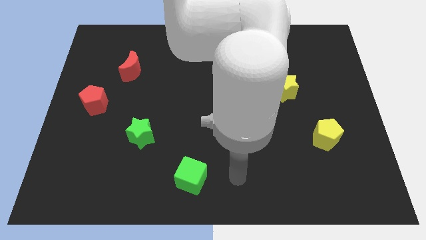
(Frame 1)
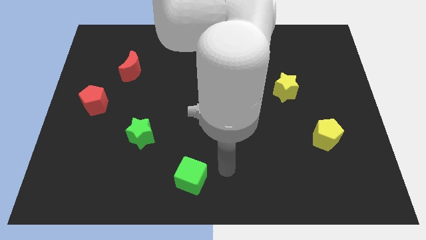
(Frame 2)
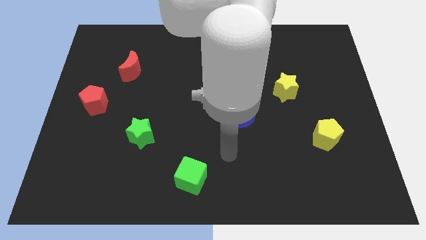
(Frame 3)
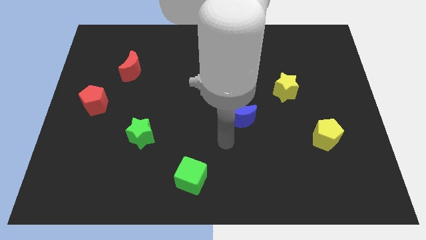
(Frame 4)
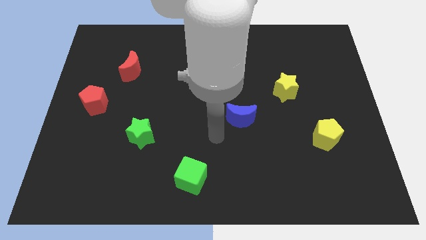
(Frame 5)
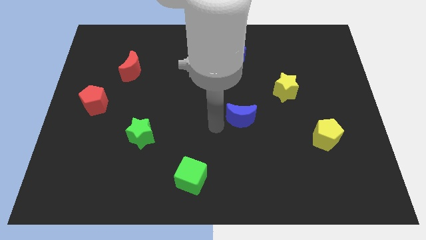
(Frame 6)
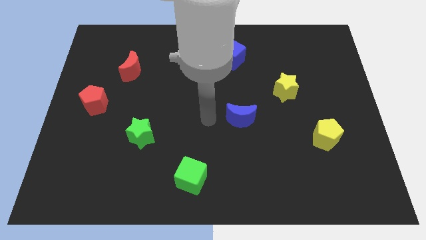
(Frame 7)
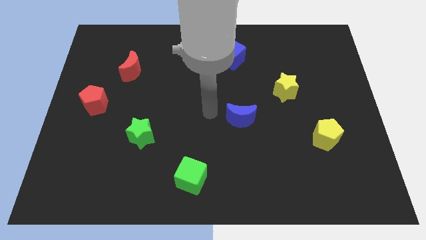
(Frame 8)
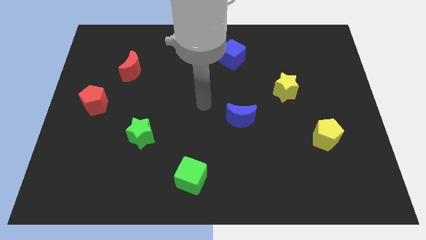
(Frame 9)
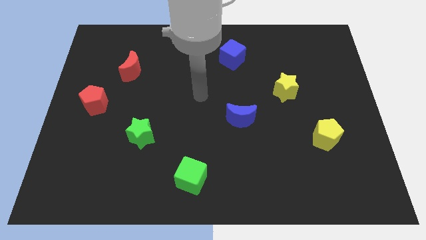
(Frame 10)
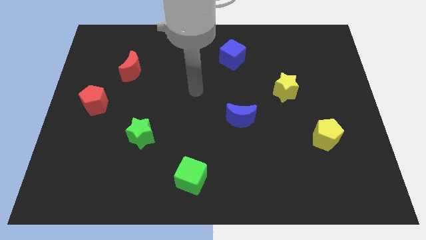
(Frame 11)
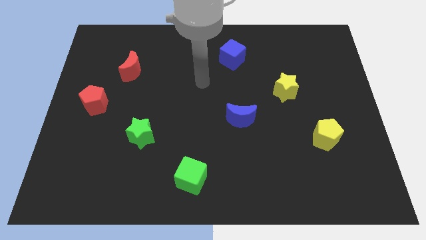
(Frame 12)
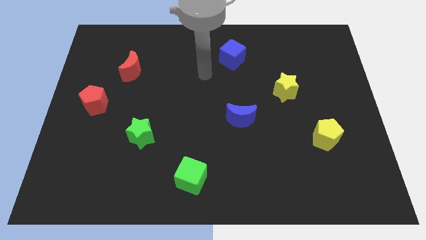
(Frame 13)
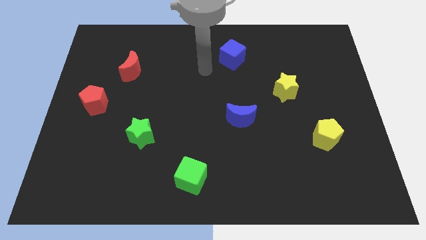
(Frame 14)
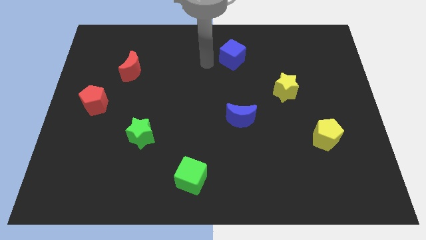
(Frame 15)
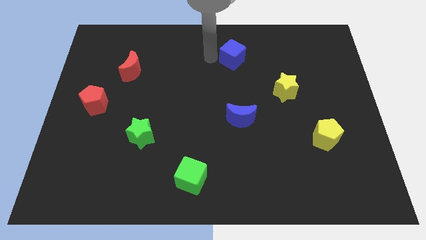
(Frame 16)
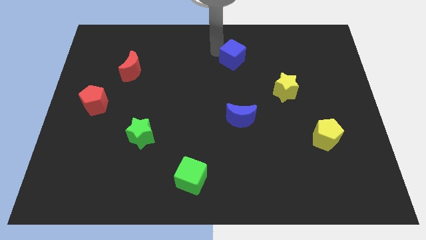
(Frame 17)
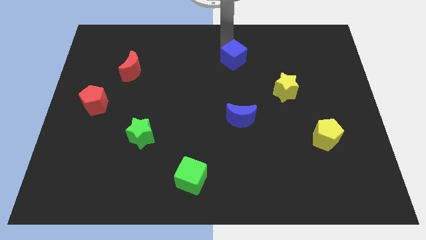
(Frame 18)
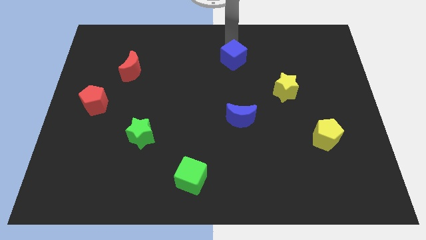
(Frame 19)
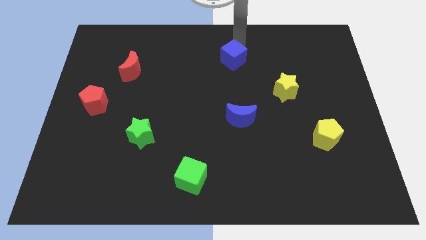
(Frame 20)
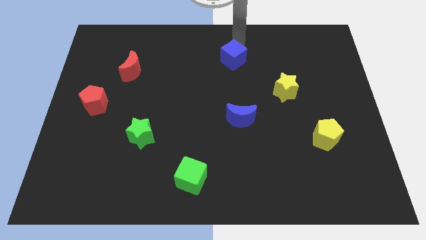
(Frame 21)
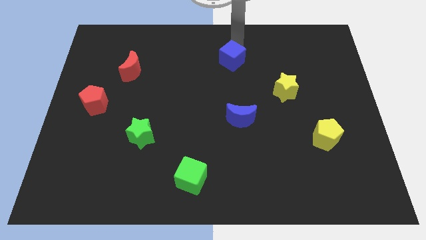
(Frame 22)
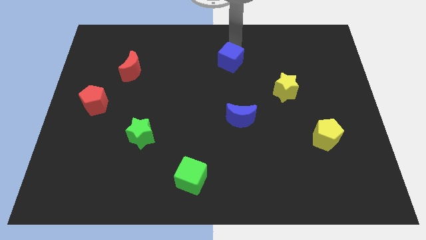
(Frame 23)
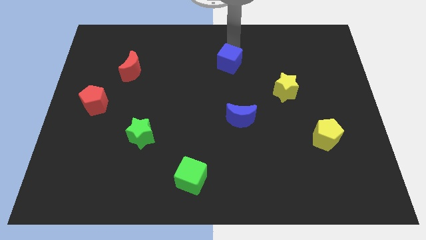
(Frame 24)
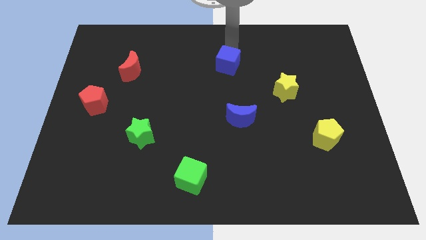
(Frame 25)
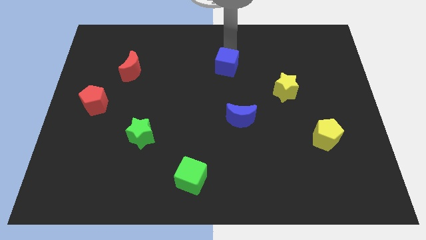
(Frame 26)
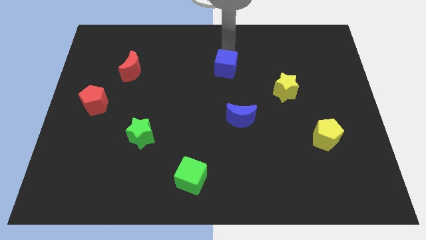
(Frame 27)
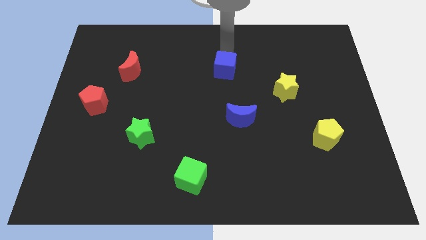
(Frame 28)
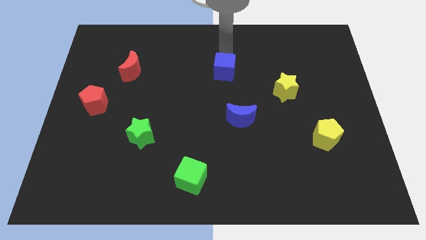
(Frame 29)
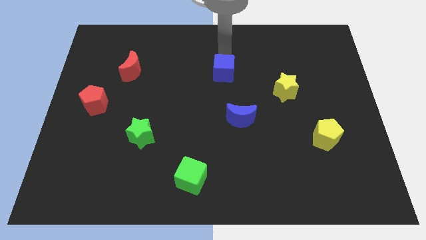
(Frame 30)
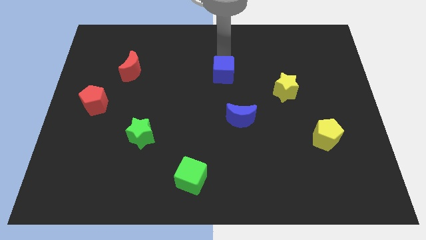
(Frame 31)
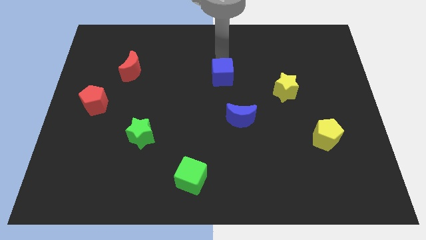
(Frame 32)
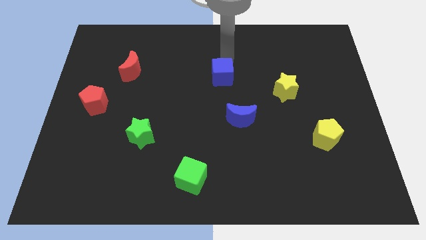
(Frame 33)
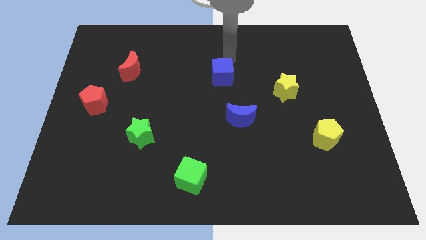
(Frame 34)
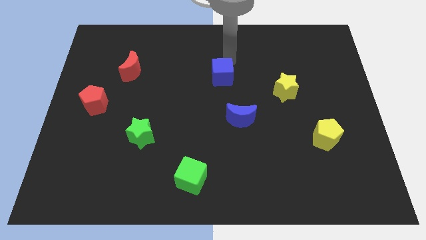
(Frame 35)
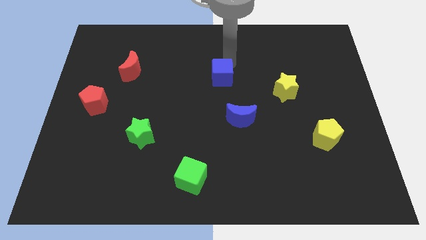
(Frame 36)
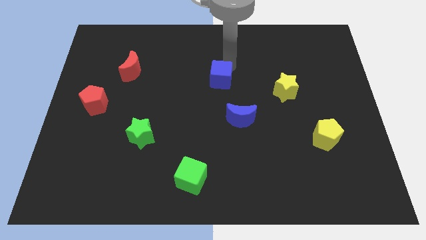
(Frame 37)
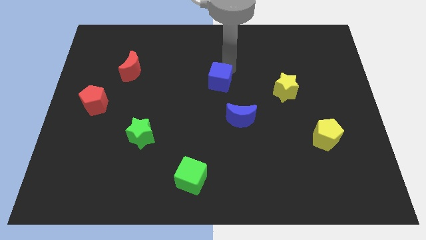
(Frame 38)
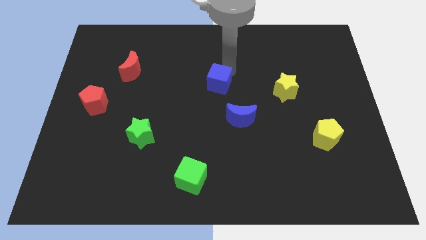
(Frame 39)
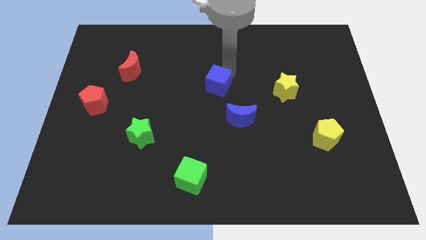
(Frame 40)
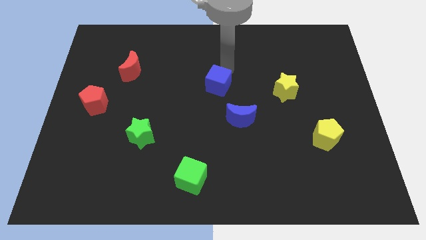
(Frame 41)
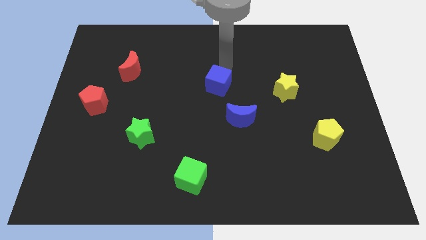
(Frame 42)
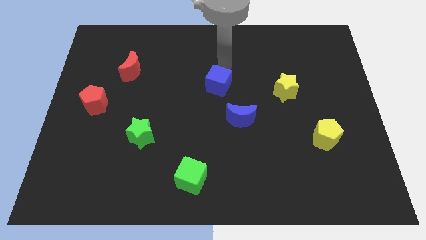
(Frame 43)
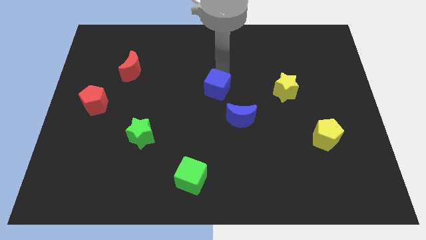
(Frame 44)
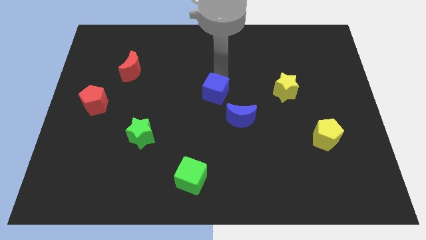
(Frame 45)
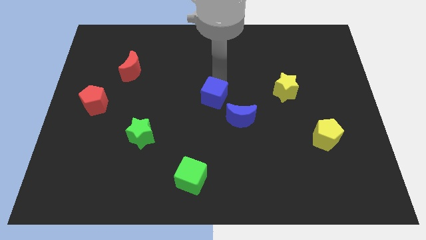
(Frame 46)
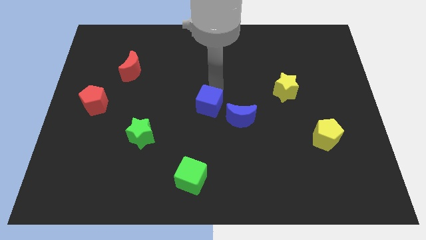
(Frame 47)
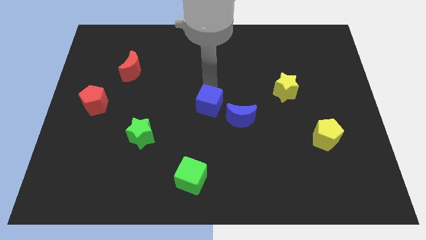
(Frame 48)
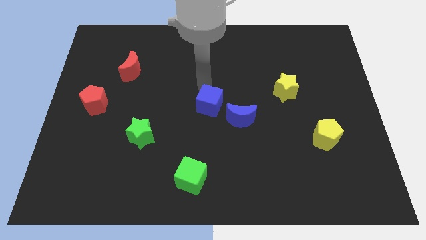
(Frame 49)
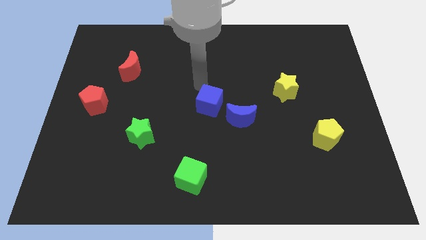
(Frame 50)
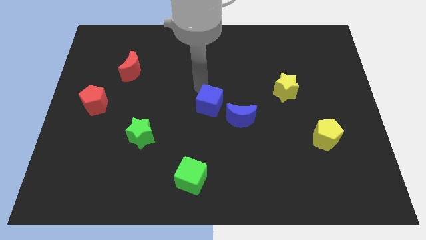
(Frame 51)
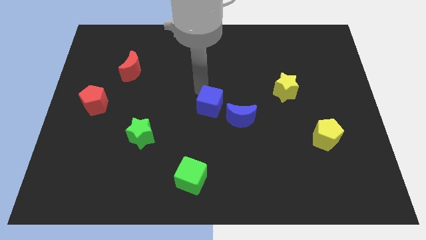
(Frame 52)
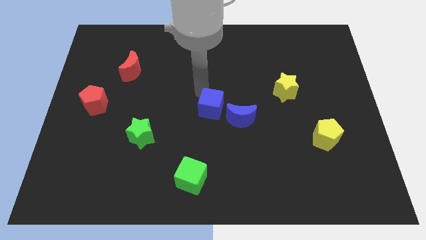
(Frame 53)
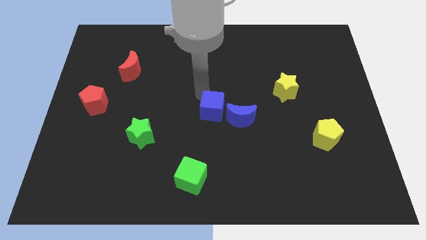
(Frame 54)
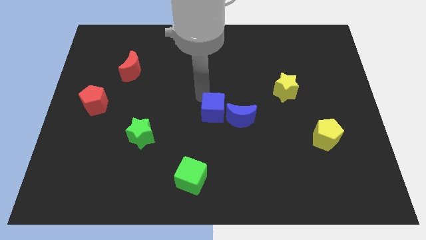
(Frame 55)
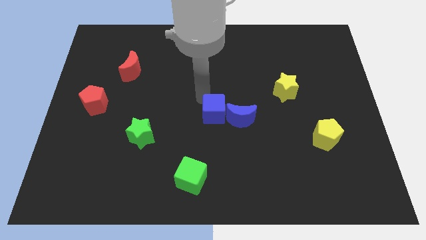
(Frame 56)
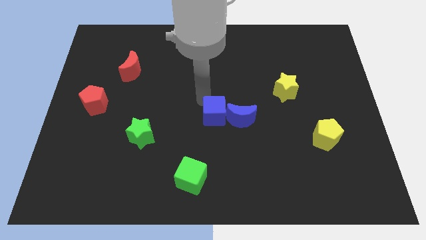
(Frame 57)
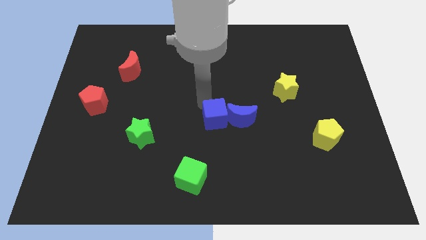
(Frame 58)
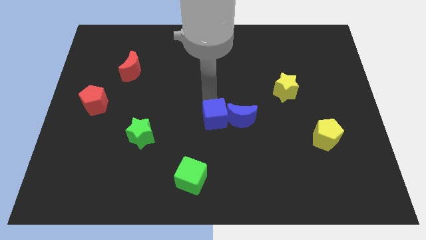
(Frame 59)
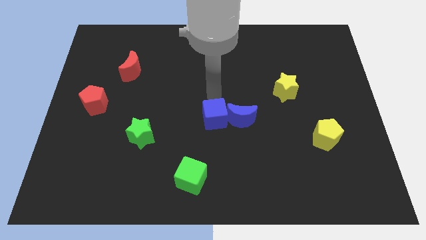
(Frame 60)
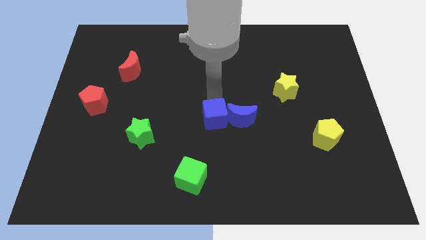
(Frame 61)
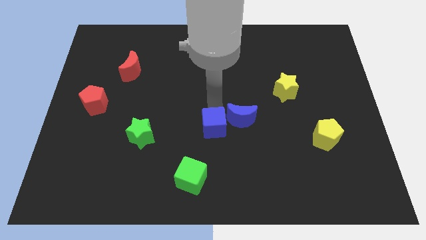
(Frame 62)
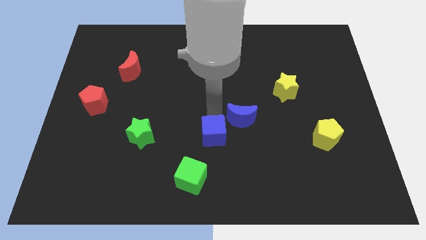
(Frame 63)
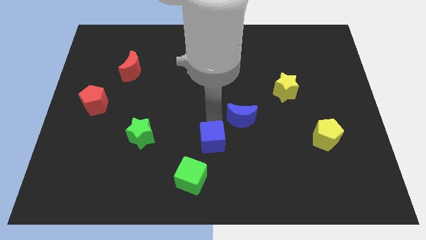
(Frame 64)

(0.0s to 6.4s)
slide the blue cube to the top right of the green cube

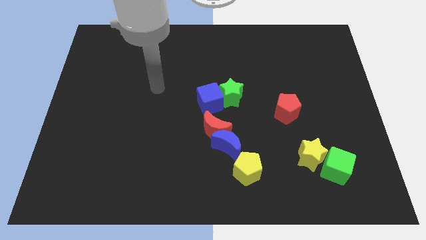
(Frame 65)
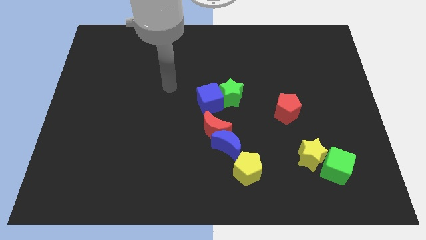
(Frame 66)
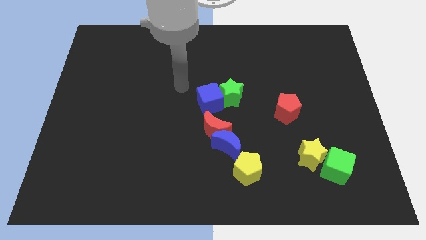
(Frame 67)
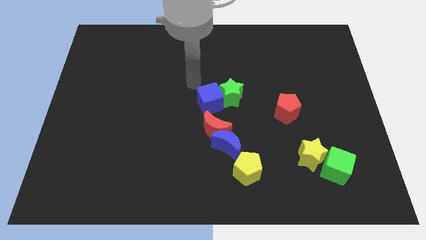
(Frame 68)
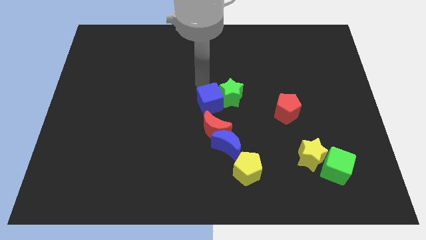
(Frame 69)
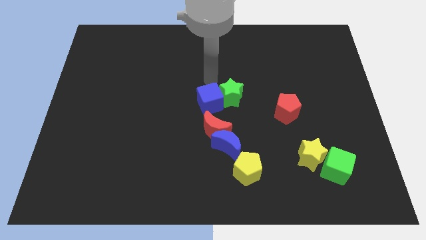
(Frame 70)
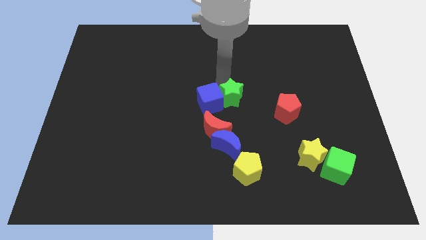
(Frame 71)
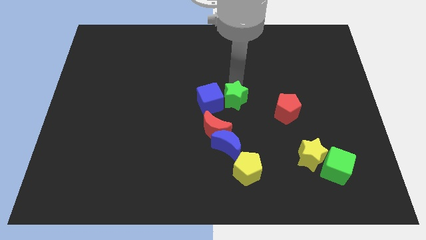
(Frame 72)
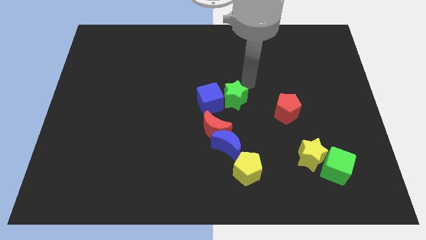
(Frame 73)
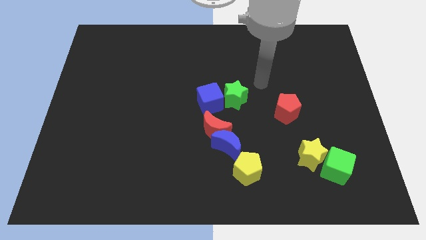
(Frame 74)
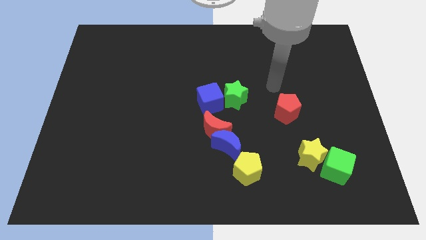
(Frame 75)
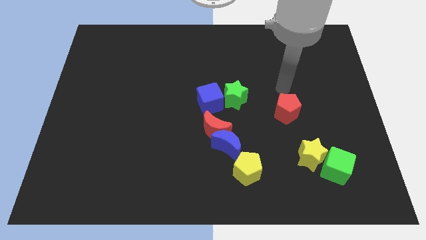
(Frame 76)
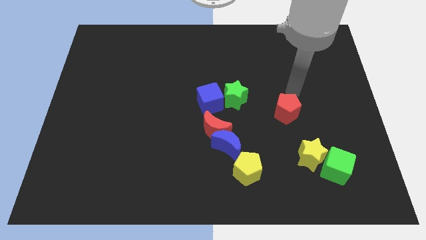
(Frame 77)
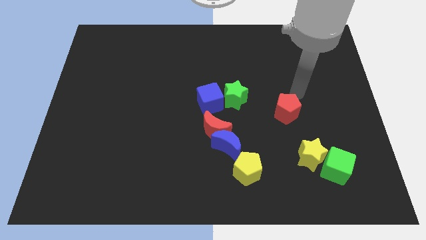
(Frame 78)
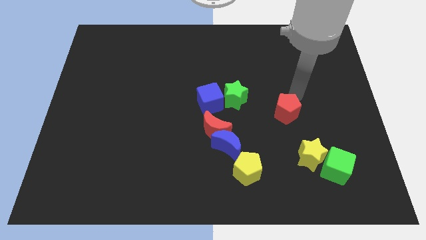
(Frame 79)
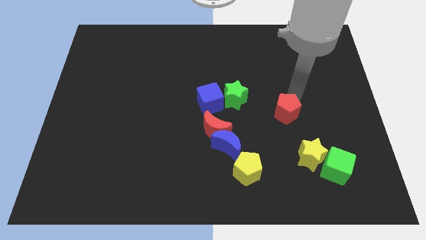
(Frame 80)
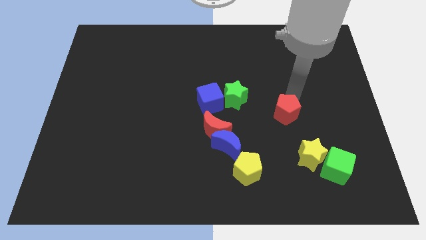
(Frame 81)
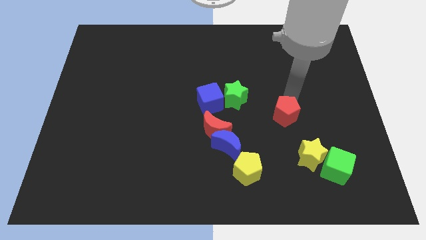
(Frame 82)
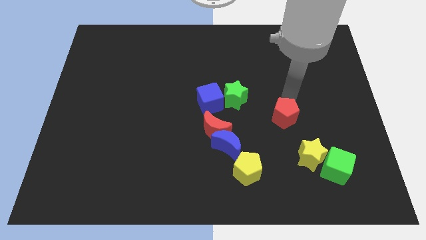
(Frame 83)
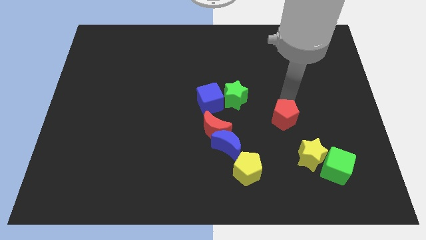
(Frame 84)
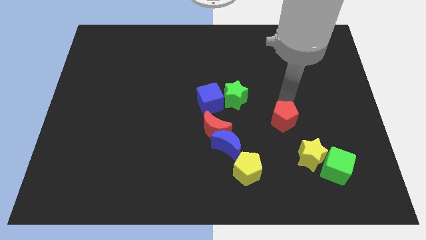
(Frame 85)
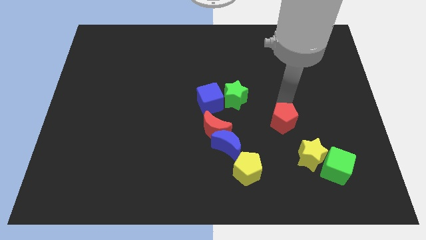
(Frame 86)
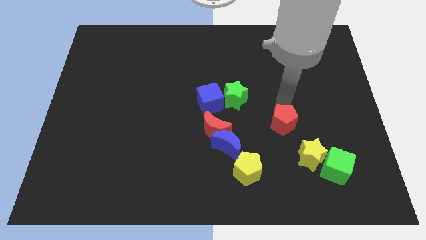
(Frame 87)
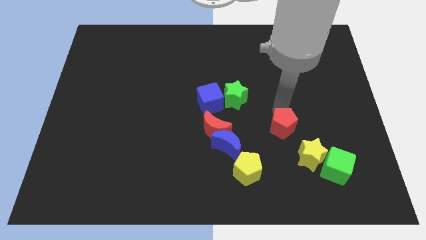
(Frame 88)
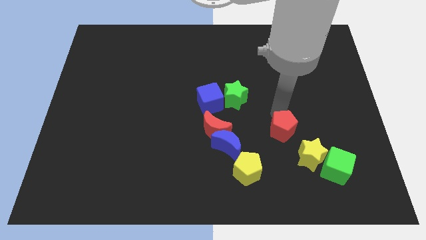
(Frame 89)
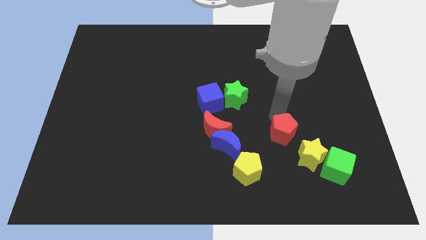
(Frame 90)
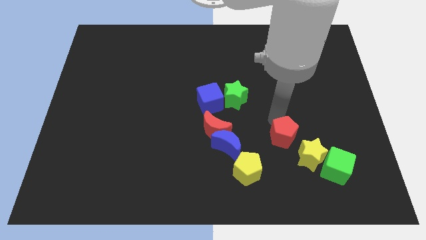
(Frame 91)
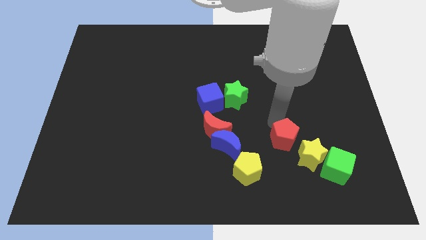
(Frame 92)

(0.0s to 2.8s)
slide the red pentagon to the left side of the yellow star
